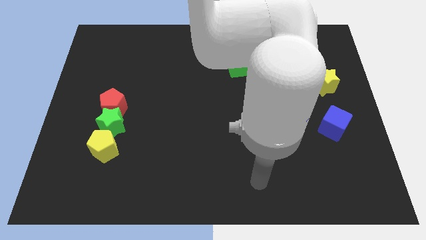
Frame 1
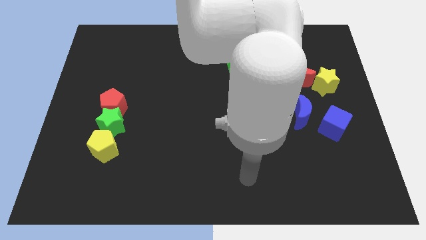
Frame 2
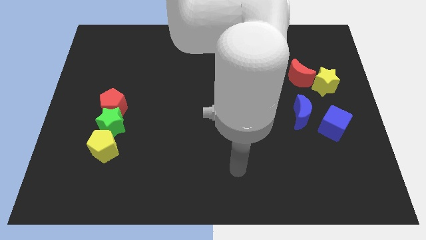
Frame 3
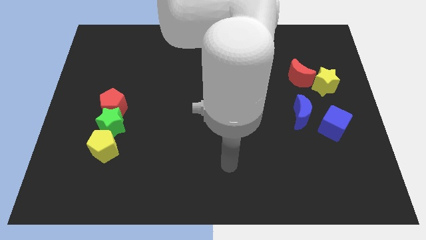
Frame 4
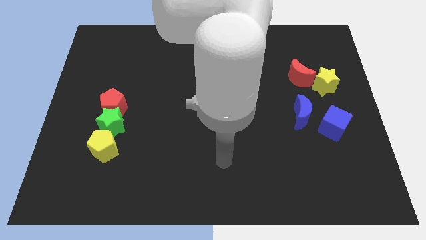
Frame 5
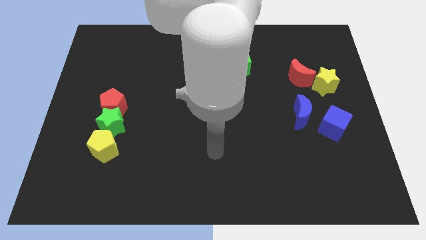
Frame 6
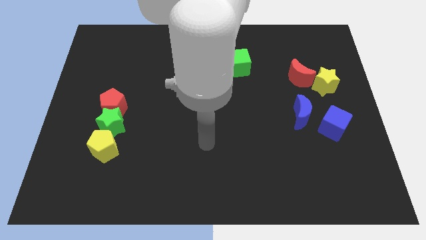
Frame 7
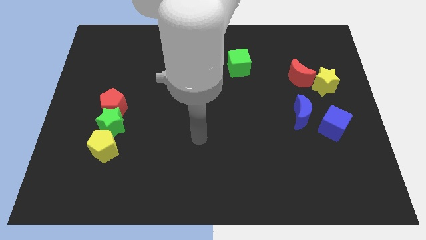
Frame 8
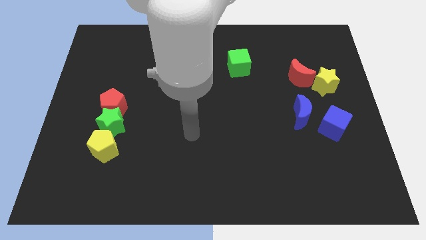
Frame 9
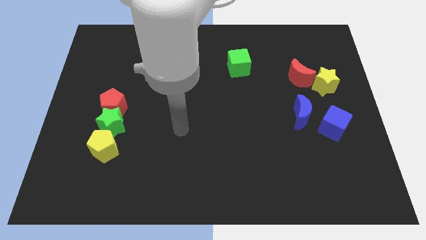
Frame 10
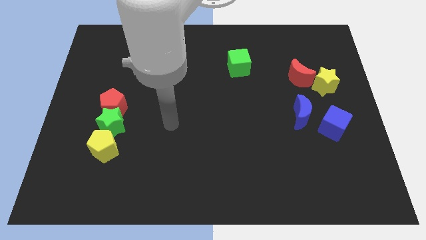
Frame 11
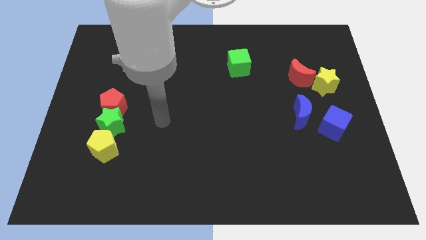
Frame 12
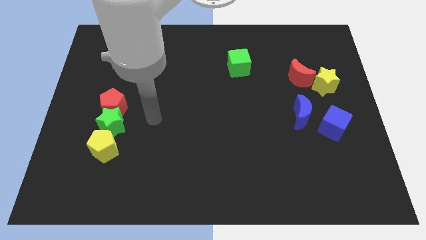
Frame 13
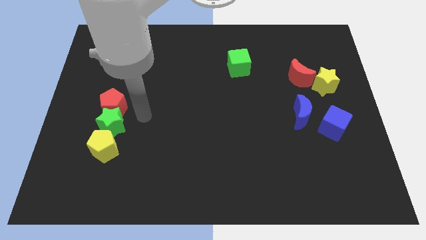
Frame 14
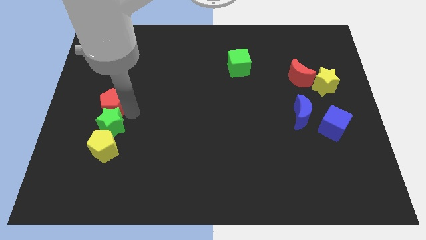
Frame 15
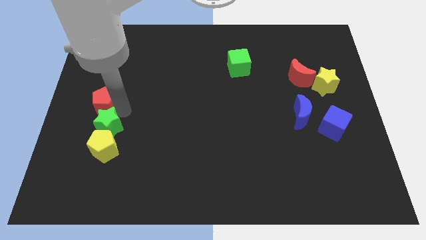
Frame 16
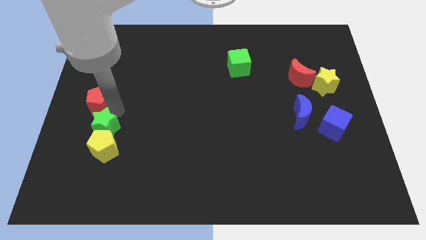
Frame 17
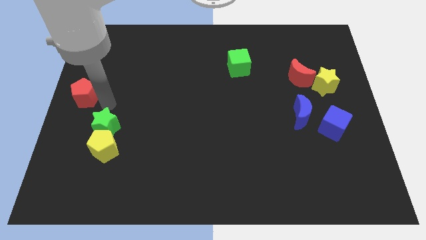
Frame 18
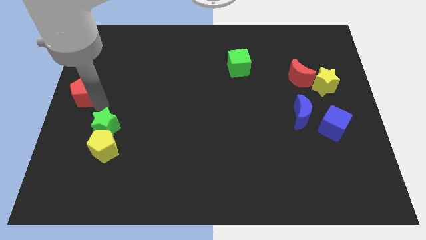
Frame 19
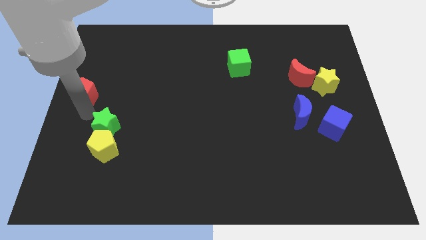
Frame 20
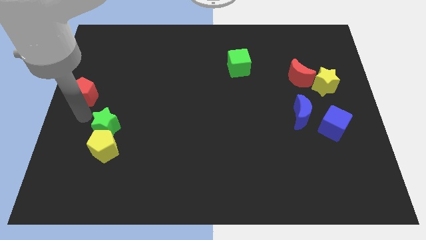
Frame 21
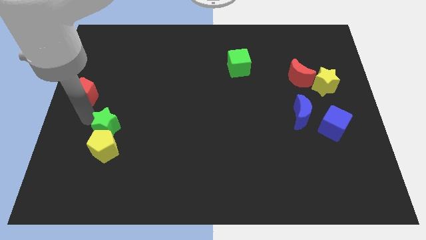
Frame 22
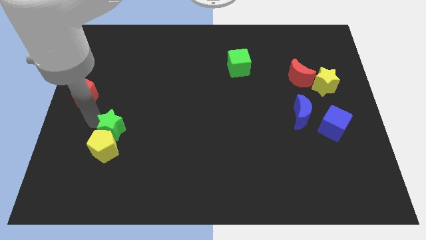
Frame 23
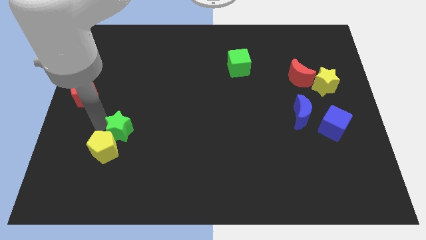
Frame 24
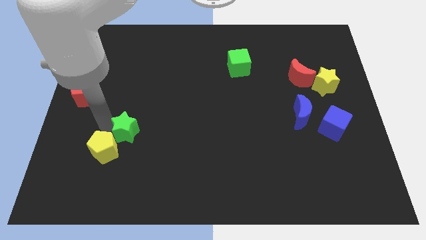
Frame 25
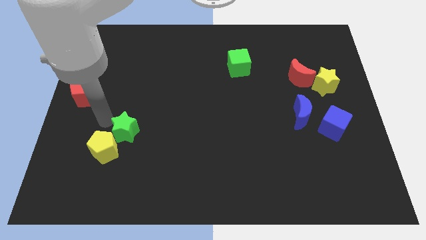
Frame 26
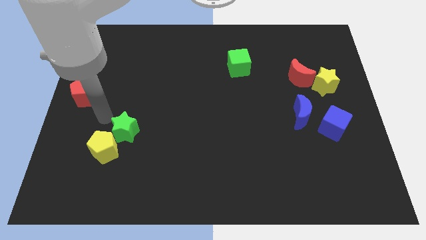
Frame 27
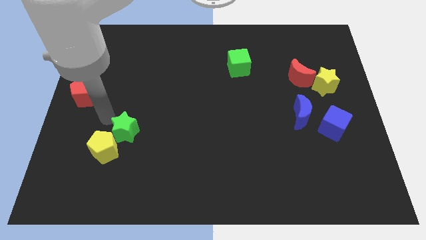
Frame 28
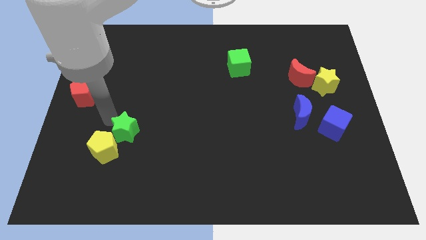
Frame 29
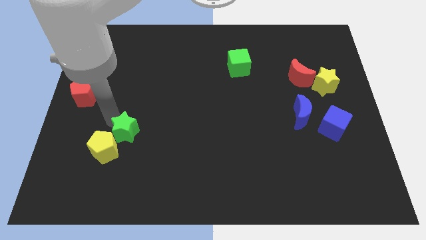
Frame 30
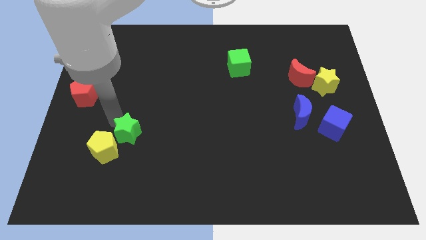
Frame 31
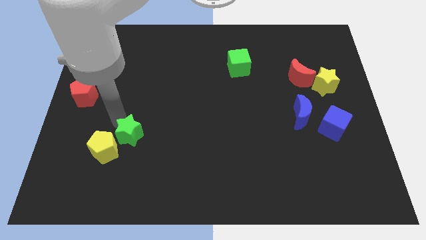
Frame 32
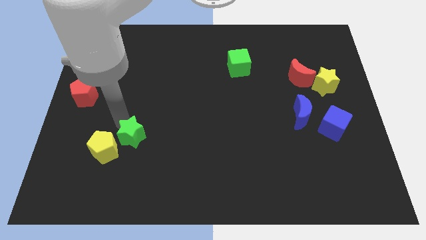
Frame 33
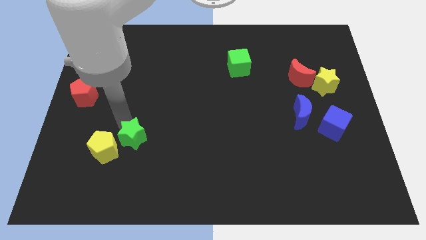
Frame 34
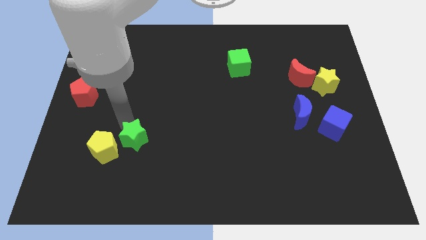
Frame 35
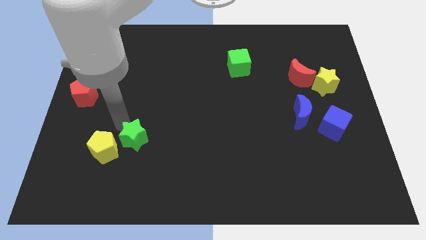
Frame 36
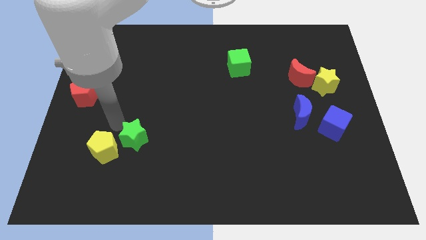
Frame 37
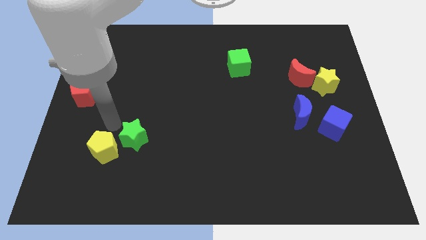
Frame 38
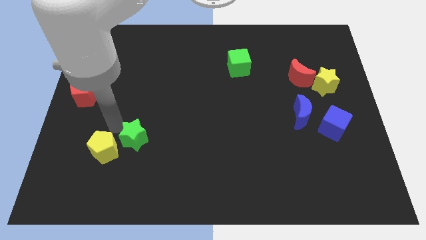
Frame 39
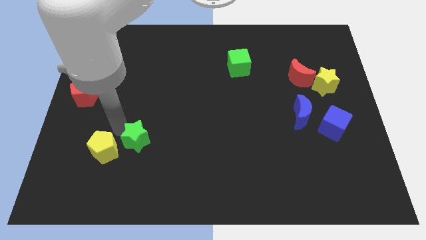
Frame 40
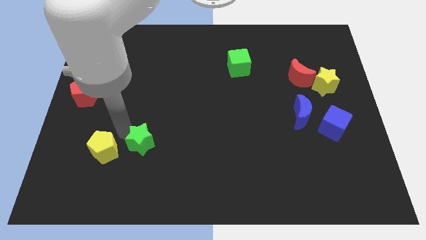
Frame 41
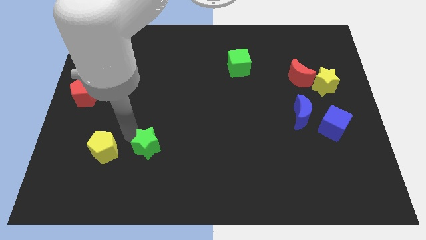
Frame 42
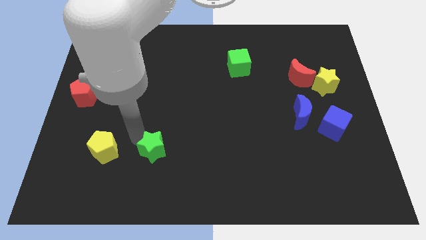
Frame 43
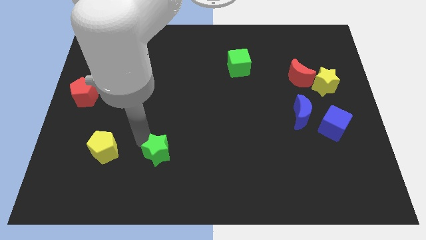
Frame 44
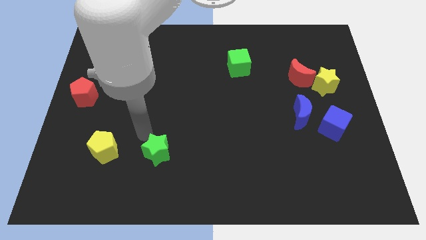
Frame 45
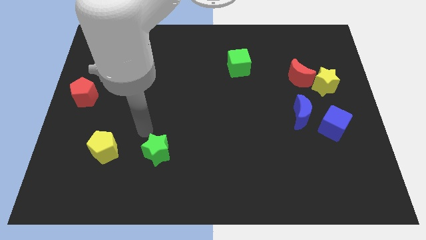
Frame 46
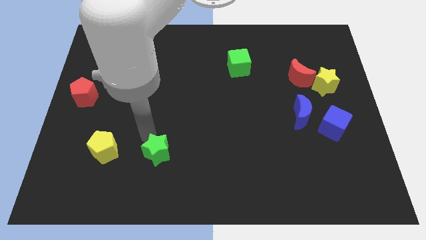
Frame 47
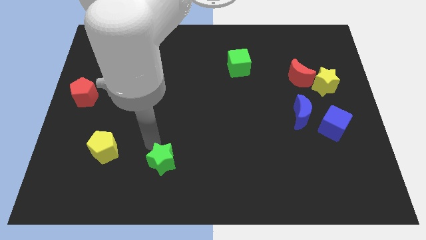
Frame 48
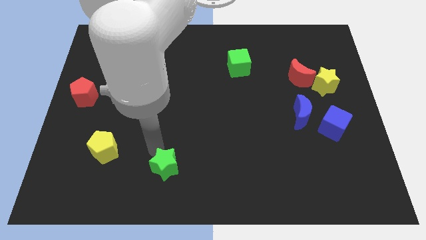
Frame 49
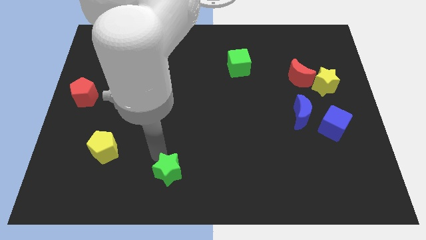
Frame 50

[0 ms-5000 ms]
put the green star to the bottom

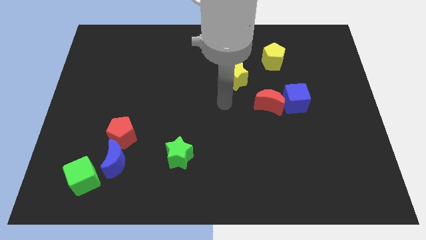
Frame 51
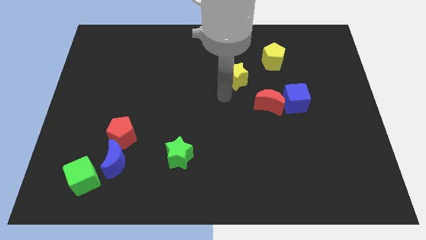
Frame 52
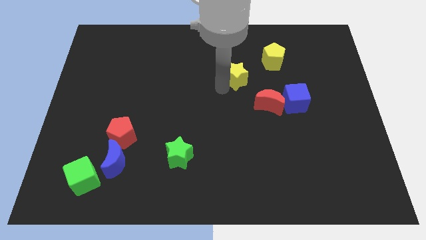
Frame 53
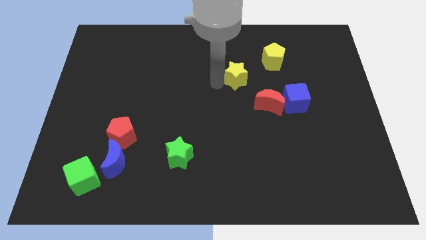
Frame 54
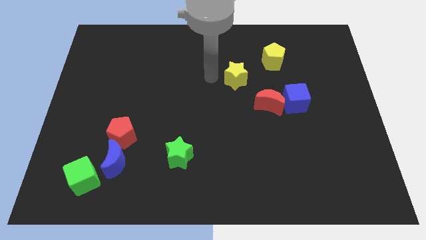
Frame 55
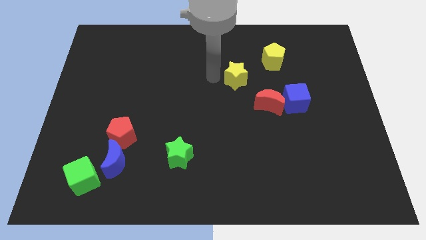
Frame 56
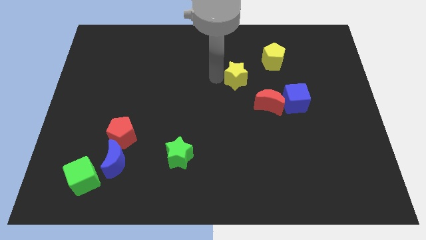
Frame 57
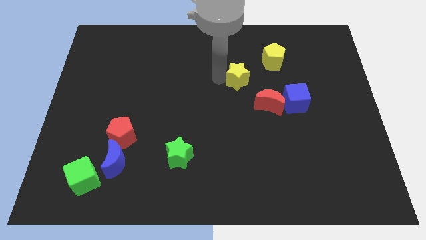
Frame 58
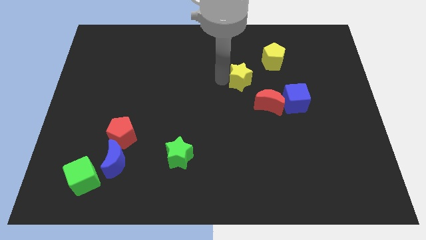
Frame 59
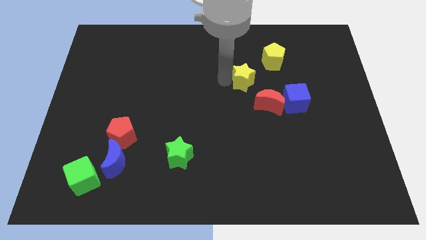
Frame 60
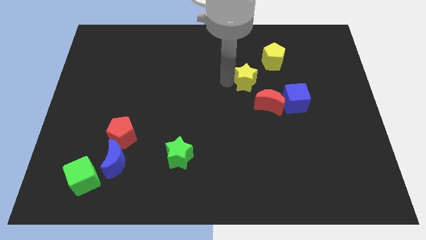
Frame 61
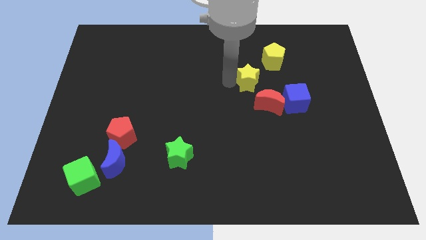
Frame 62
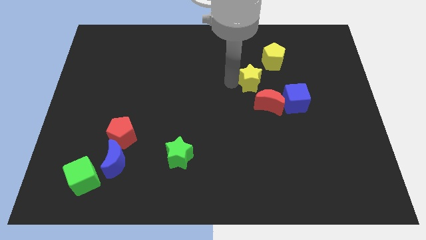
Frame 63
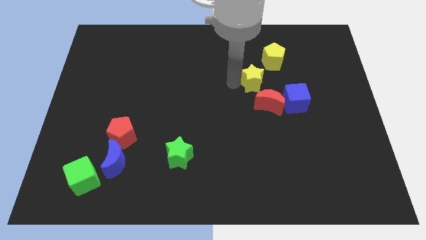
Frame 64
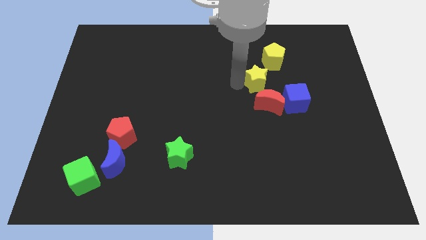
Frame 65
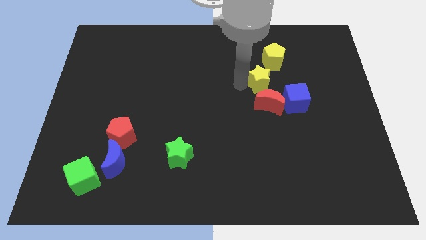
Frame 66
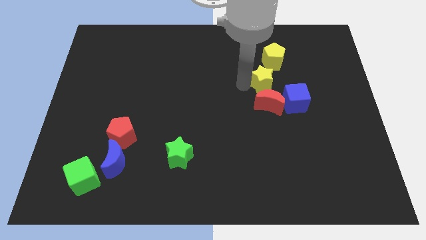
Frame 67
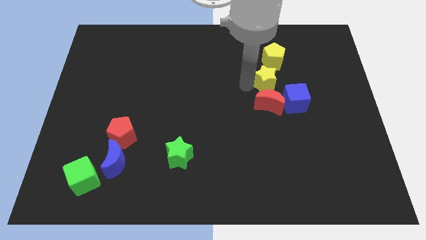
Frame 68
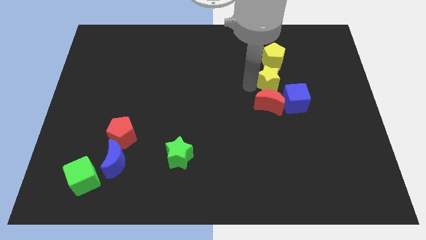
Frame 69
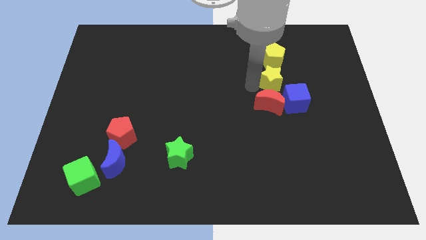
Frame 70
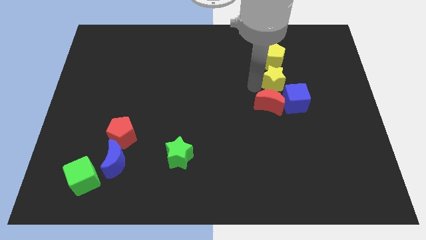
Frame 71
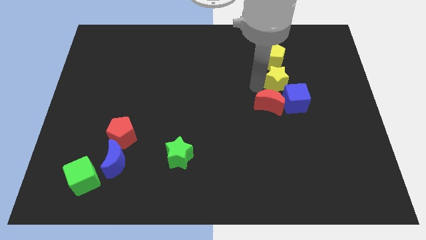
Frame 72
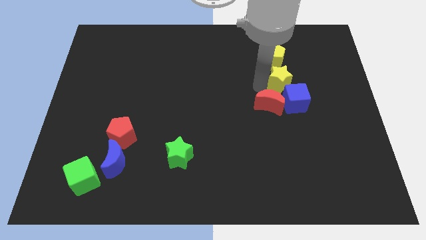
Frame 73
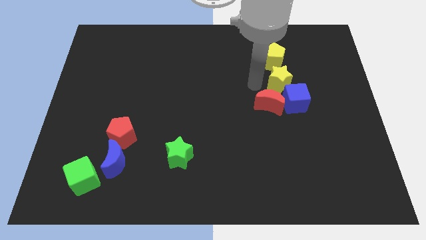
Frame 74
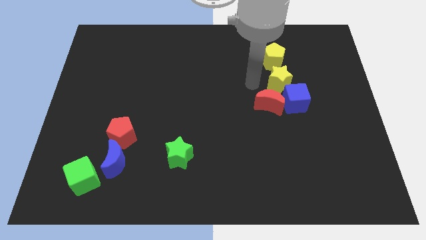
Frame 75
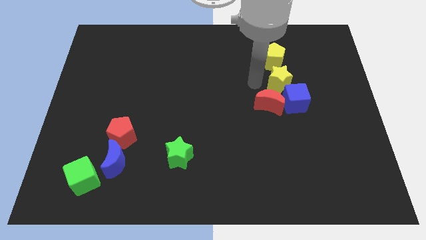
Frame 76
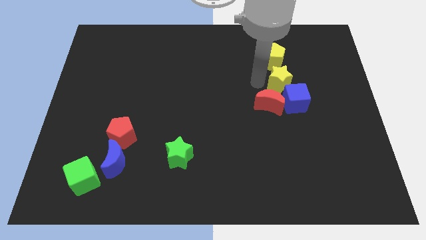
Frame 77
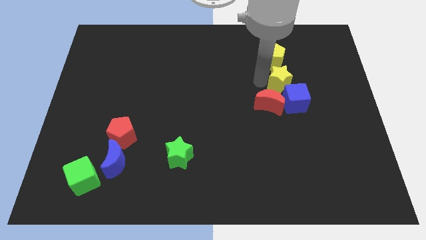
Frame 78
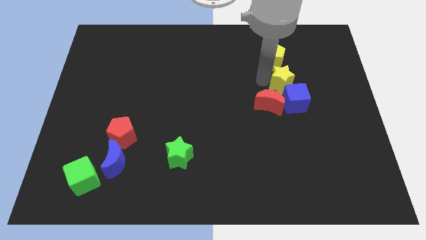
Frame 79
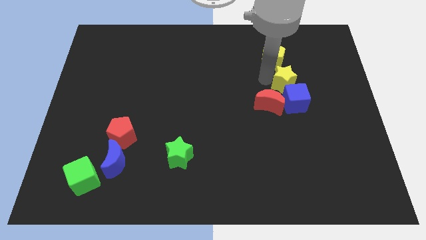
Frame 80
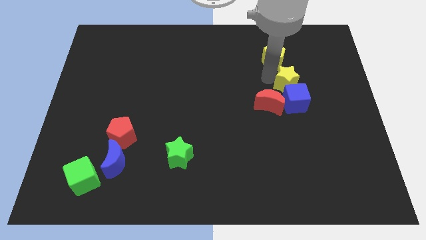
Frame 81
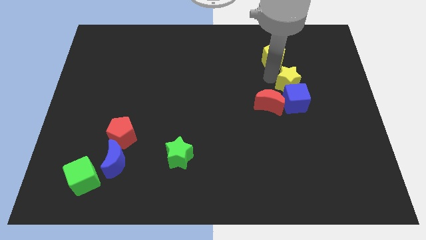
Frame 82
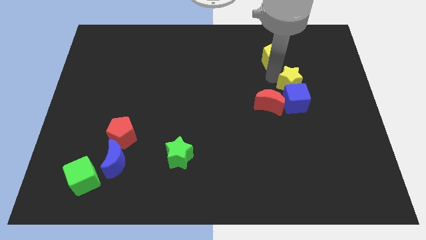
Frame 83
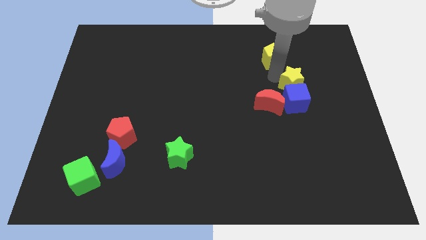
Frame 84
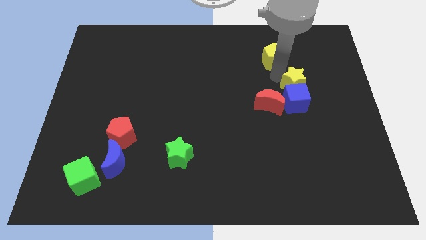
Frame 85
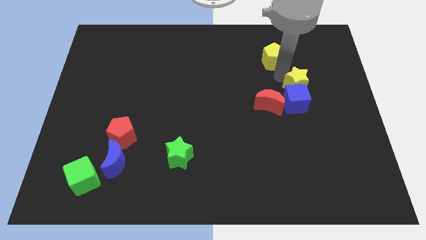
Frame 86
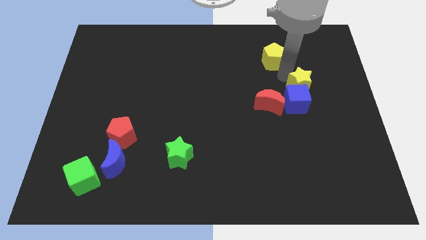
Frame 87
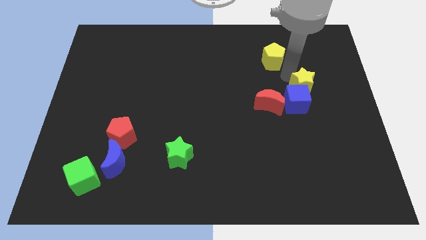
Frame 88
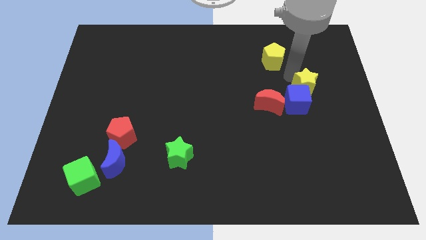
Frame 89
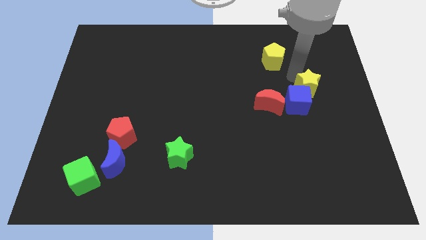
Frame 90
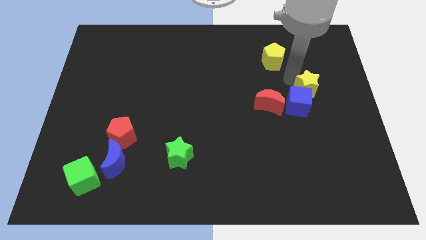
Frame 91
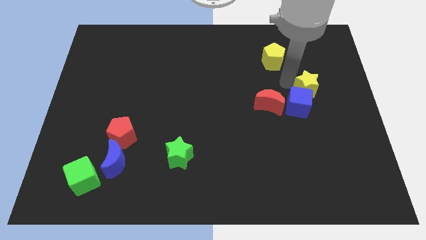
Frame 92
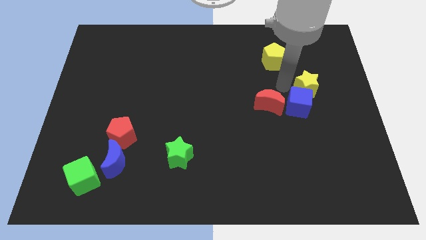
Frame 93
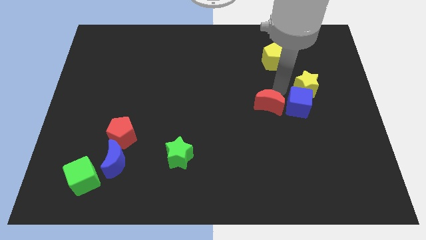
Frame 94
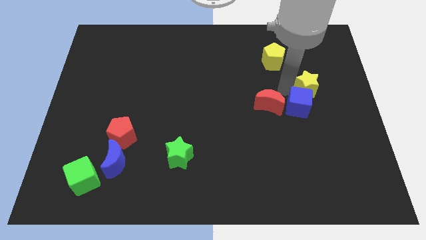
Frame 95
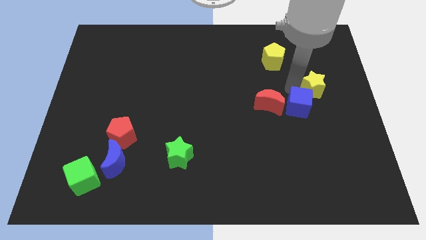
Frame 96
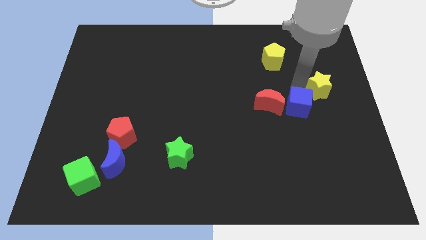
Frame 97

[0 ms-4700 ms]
slide the yellow star to the right side of the board
